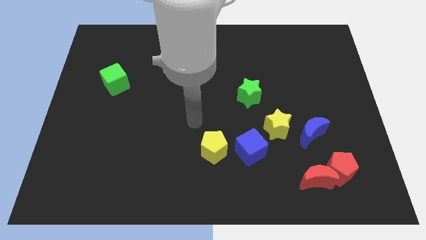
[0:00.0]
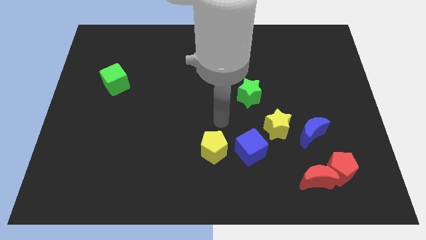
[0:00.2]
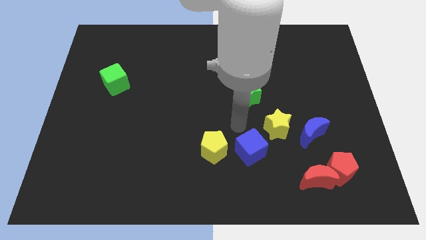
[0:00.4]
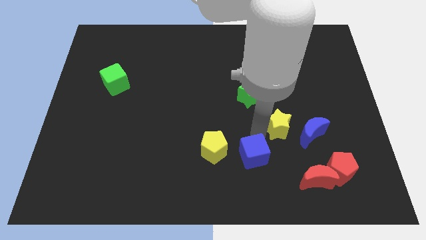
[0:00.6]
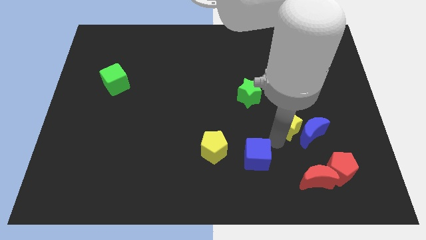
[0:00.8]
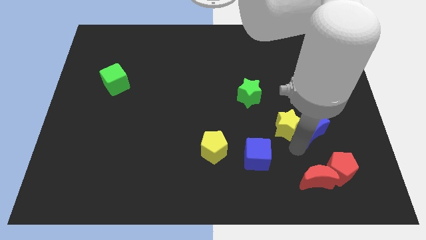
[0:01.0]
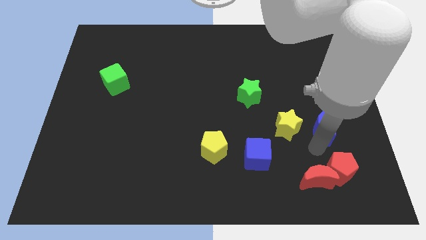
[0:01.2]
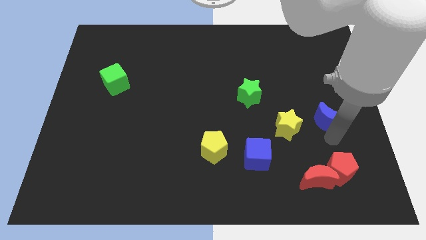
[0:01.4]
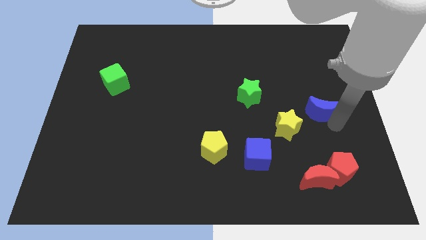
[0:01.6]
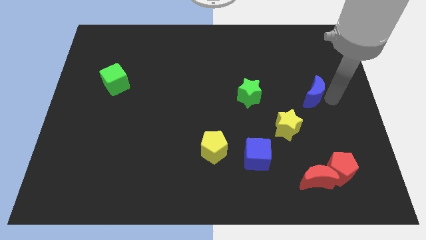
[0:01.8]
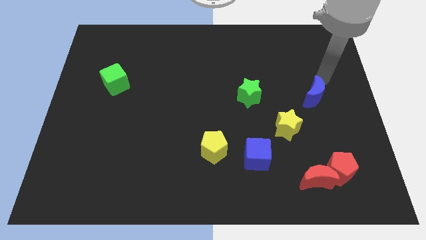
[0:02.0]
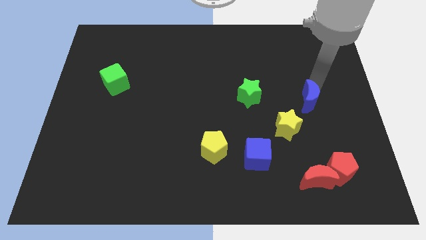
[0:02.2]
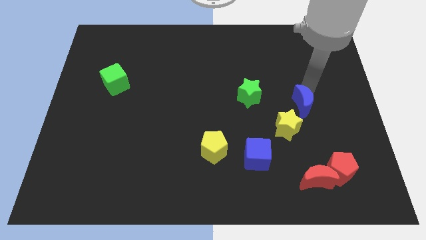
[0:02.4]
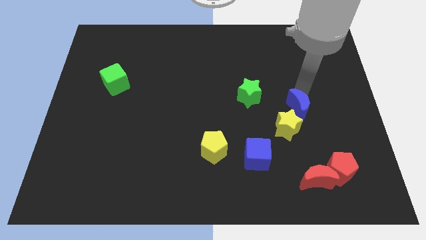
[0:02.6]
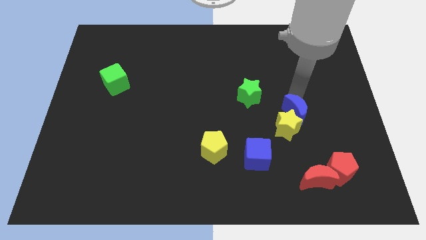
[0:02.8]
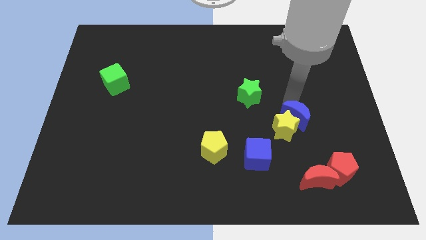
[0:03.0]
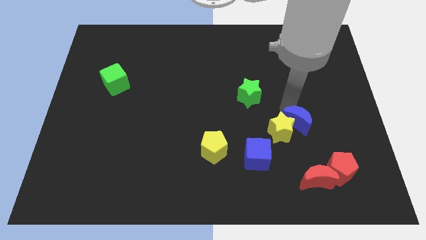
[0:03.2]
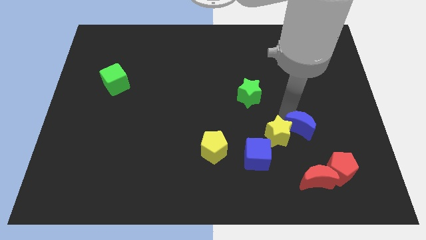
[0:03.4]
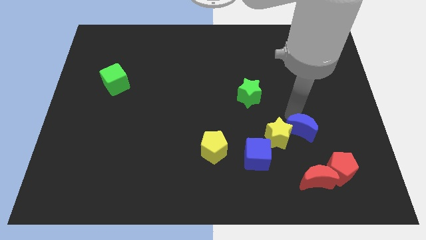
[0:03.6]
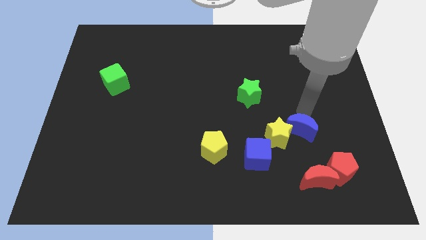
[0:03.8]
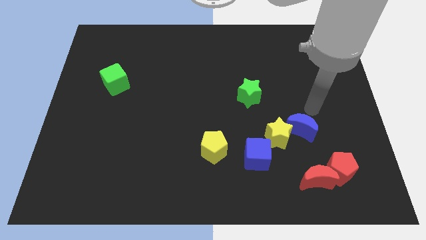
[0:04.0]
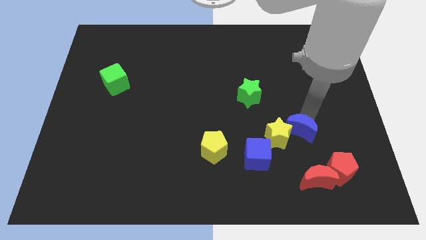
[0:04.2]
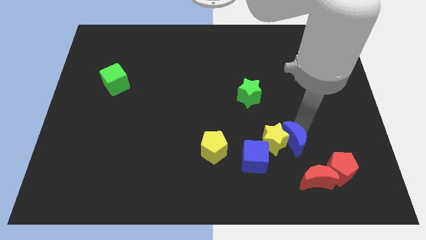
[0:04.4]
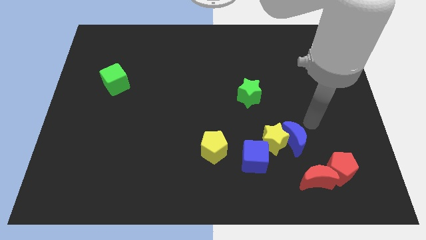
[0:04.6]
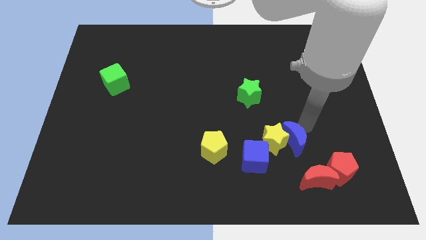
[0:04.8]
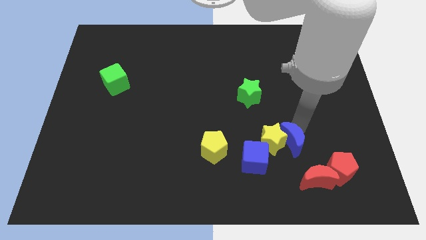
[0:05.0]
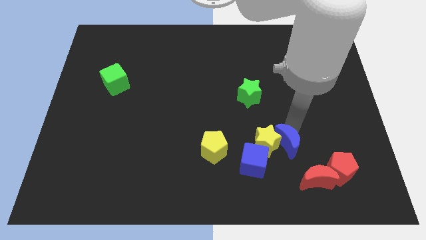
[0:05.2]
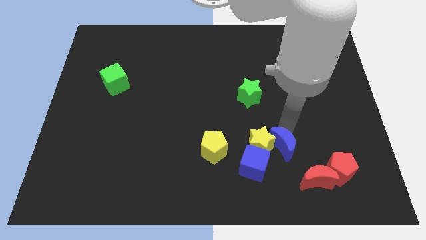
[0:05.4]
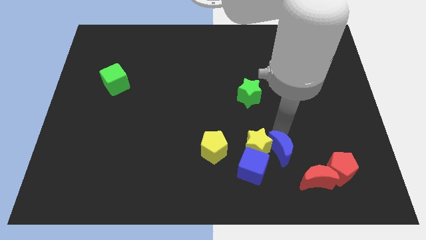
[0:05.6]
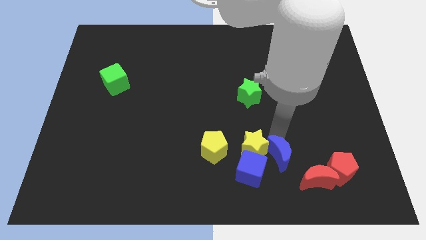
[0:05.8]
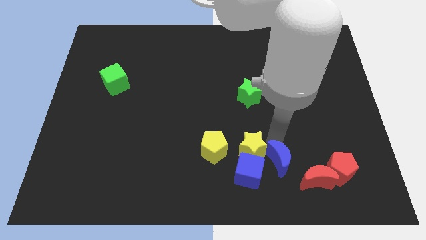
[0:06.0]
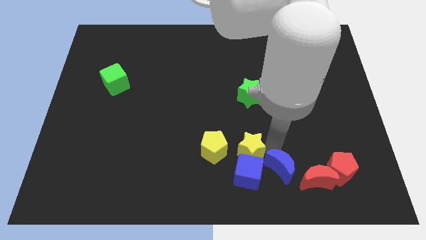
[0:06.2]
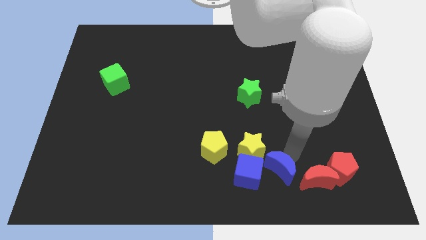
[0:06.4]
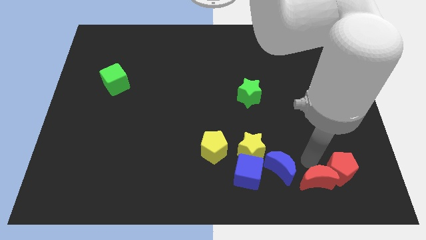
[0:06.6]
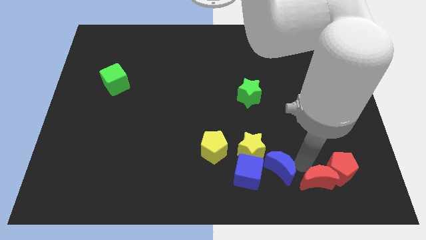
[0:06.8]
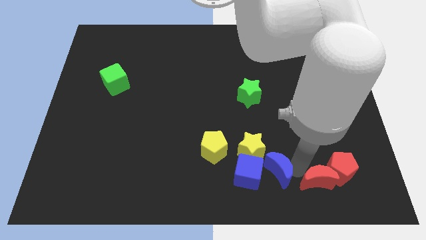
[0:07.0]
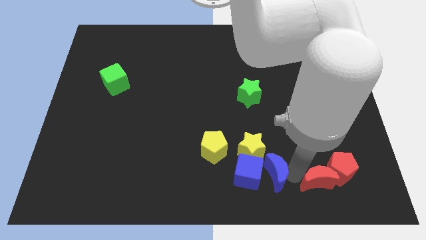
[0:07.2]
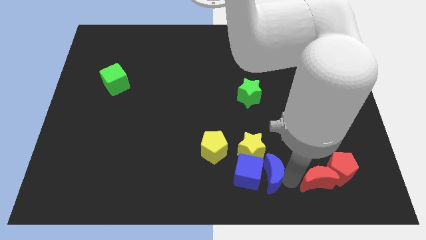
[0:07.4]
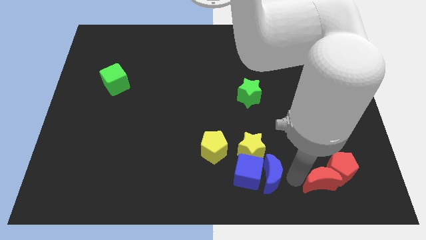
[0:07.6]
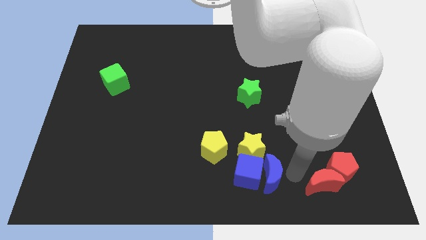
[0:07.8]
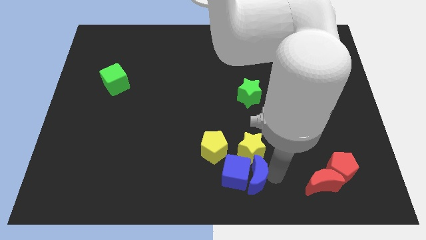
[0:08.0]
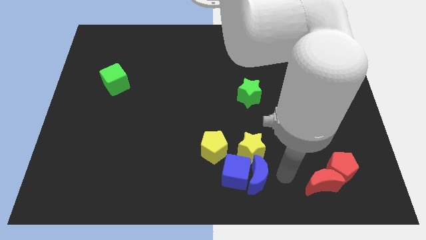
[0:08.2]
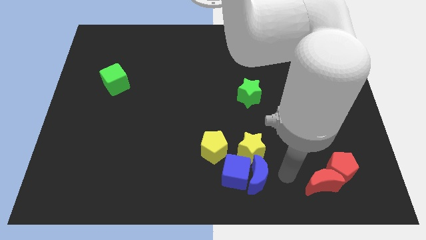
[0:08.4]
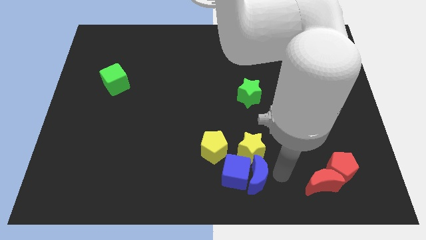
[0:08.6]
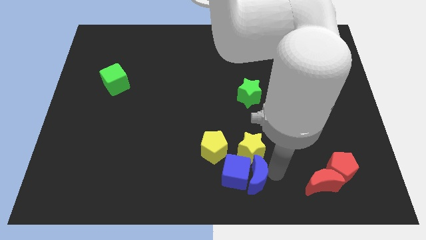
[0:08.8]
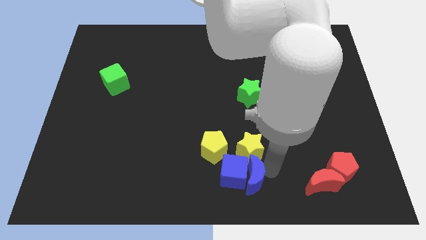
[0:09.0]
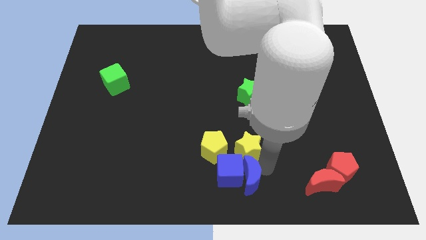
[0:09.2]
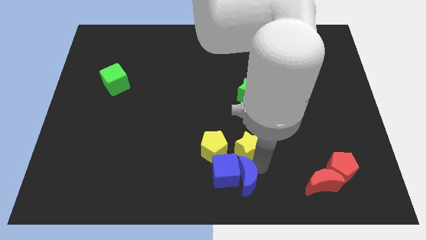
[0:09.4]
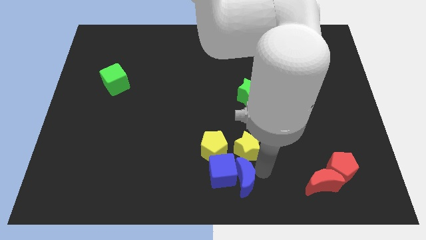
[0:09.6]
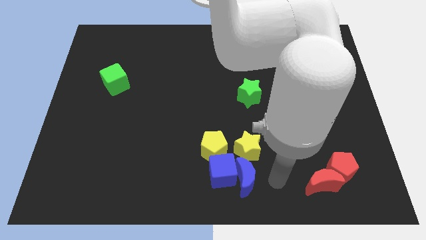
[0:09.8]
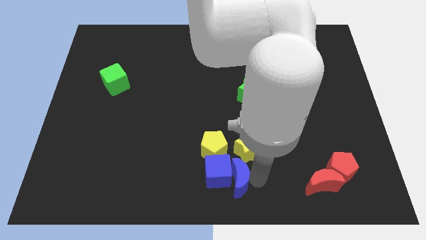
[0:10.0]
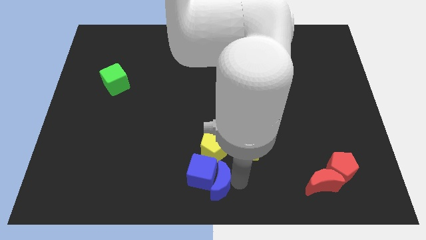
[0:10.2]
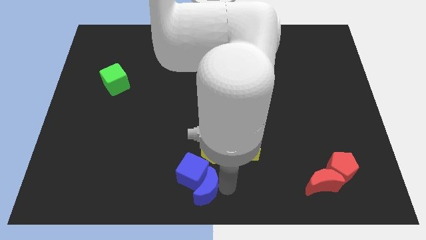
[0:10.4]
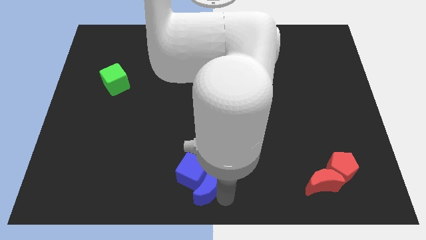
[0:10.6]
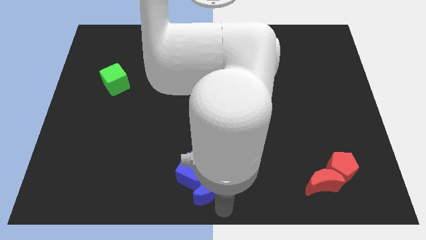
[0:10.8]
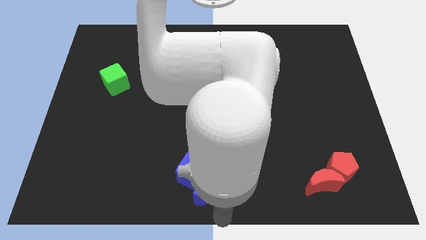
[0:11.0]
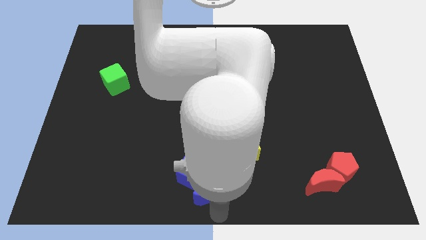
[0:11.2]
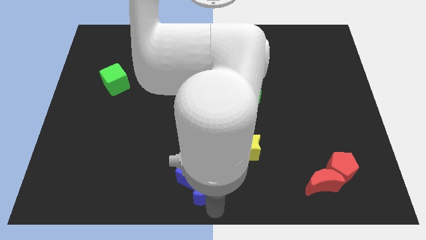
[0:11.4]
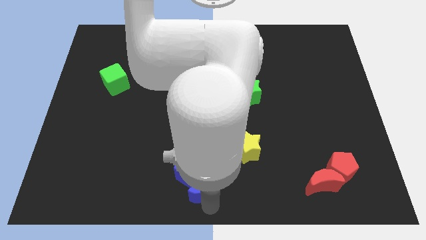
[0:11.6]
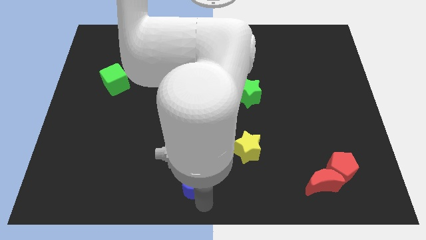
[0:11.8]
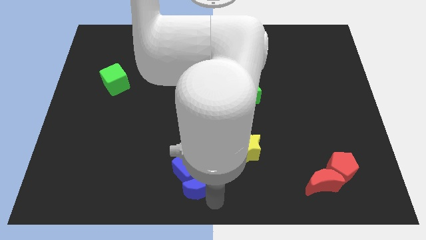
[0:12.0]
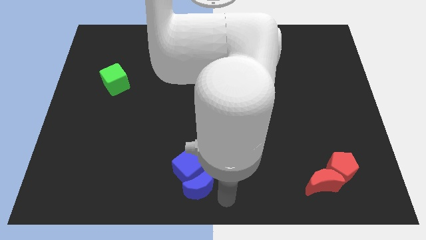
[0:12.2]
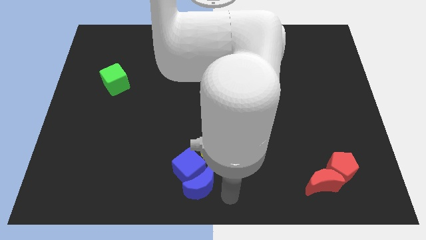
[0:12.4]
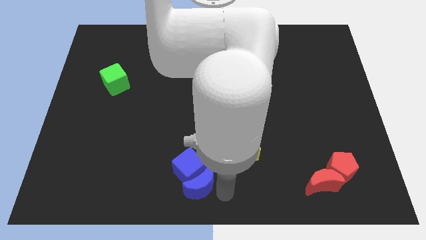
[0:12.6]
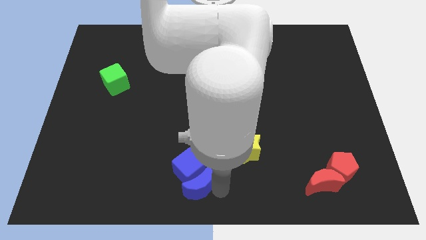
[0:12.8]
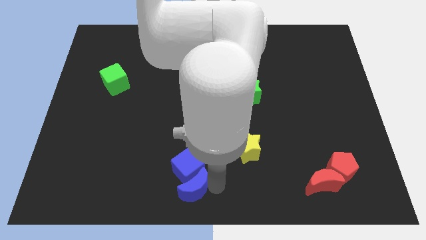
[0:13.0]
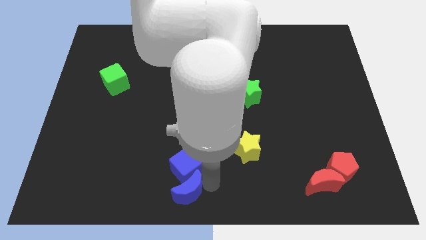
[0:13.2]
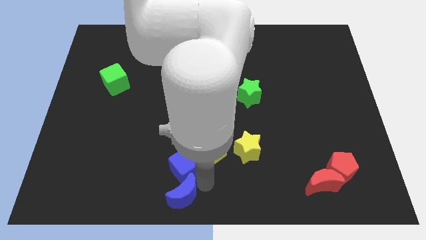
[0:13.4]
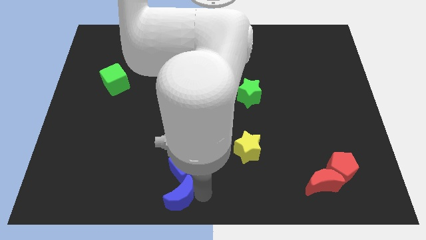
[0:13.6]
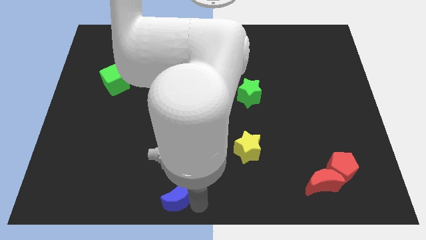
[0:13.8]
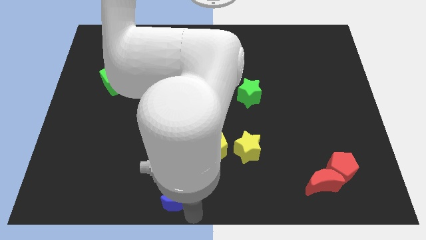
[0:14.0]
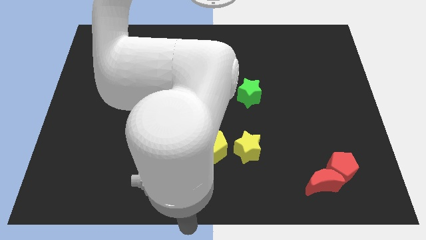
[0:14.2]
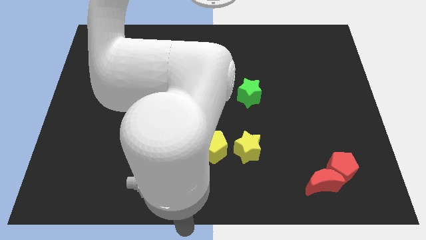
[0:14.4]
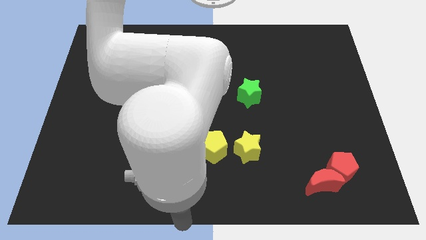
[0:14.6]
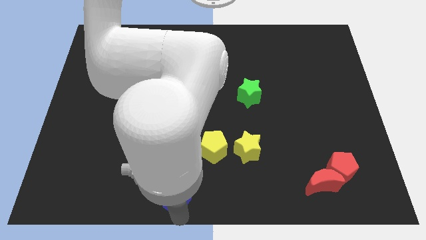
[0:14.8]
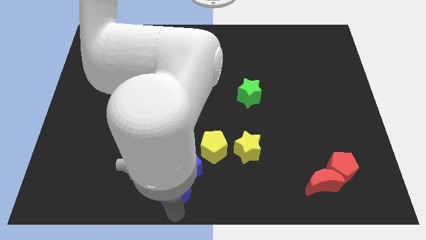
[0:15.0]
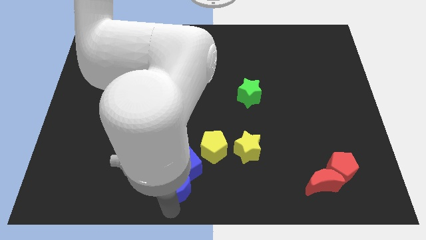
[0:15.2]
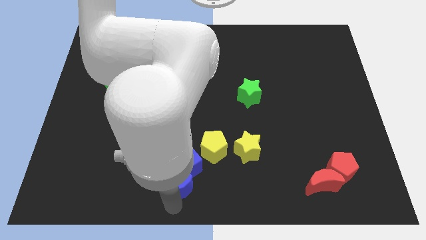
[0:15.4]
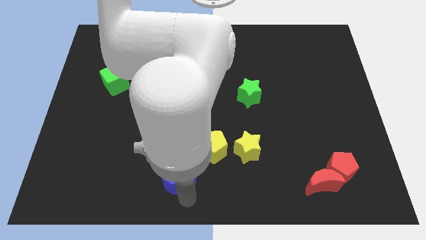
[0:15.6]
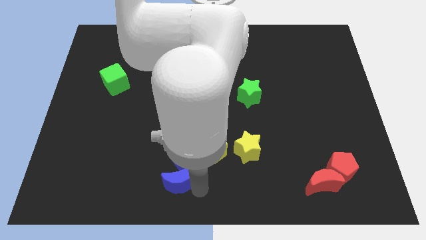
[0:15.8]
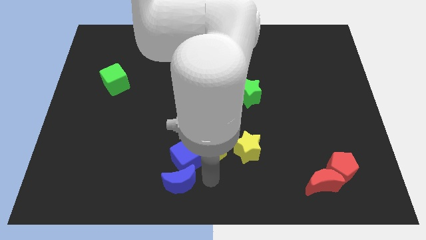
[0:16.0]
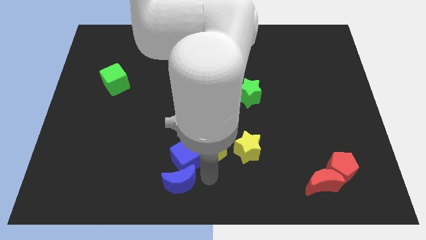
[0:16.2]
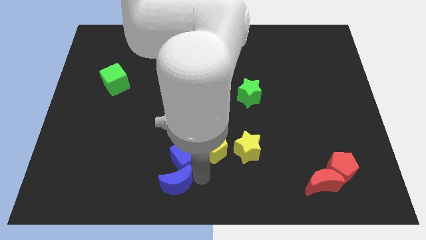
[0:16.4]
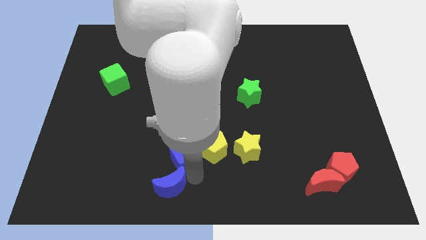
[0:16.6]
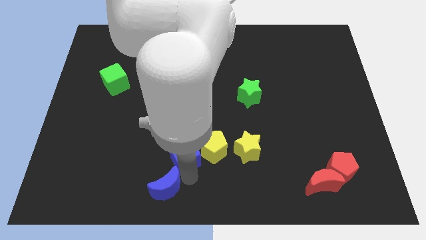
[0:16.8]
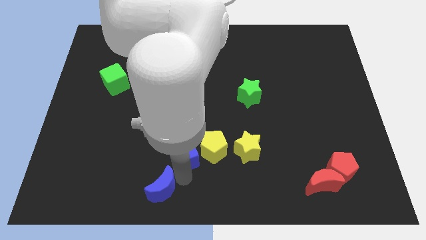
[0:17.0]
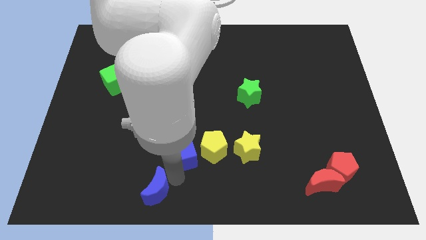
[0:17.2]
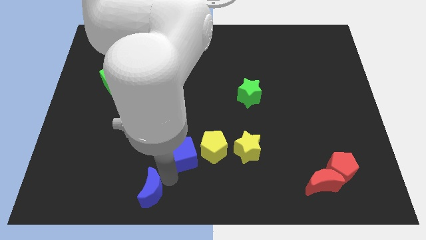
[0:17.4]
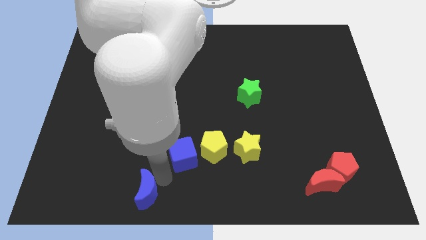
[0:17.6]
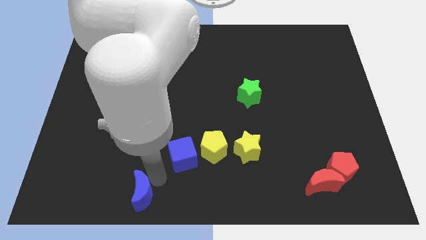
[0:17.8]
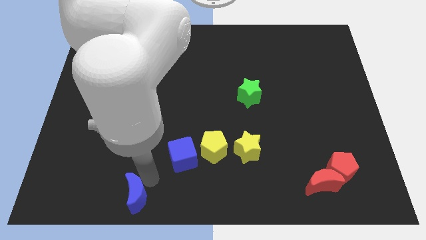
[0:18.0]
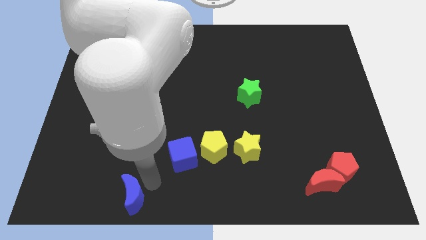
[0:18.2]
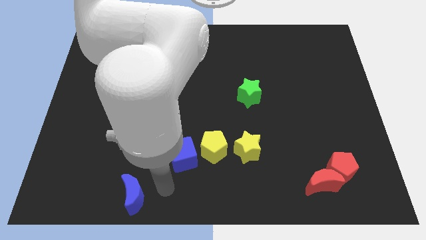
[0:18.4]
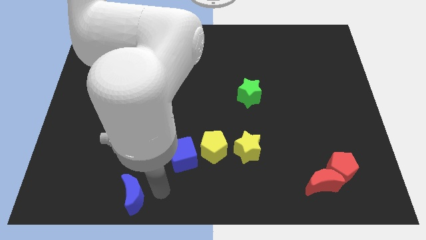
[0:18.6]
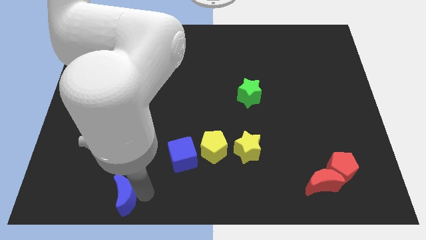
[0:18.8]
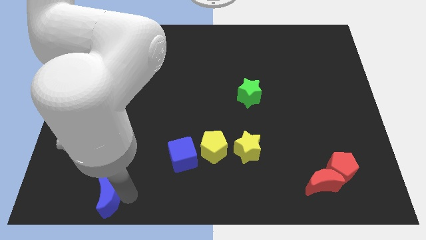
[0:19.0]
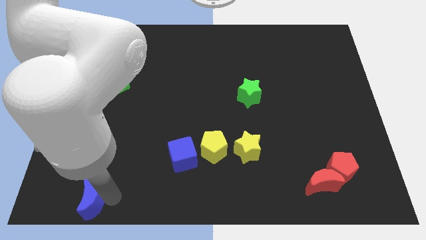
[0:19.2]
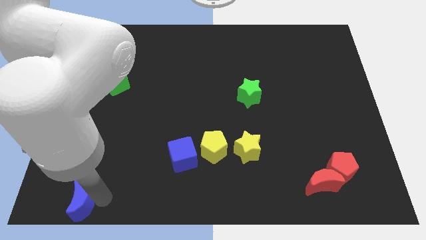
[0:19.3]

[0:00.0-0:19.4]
move the blue moon to the bottom left corner
